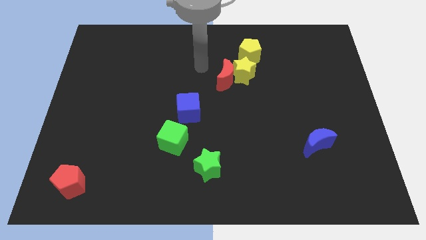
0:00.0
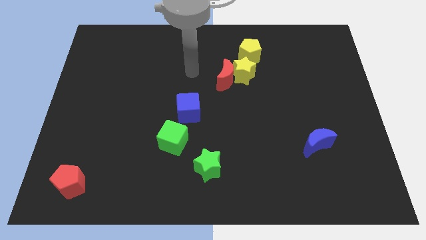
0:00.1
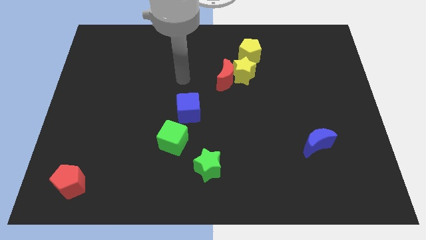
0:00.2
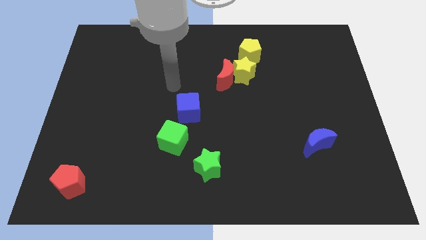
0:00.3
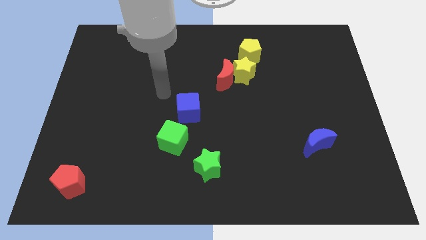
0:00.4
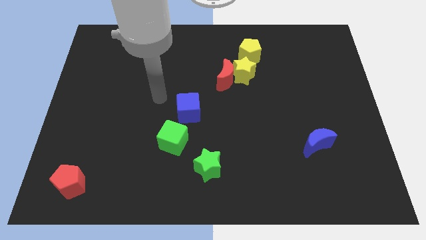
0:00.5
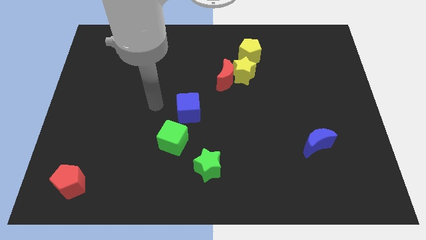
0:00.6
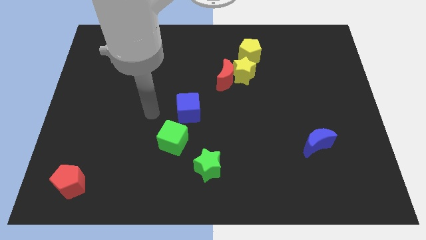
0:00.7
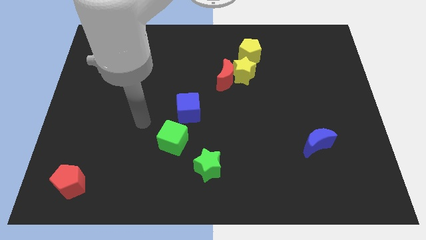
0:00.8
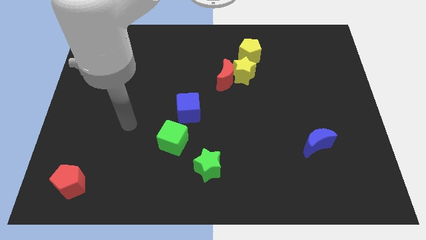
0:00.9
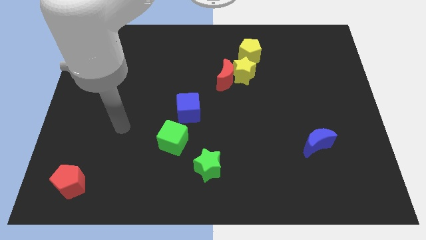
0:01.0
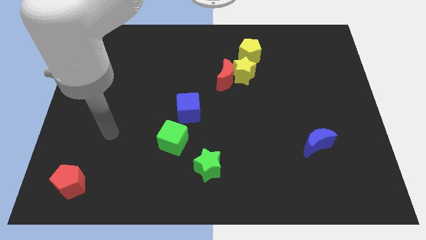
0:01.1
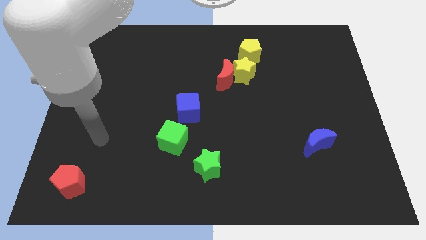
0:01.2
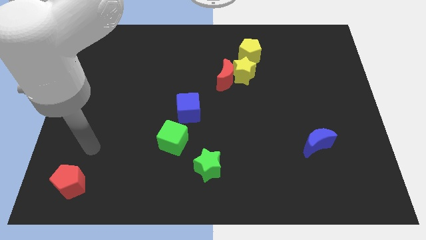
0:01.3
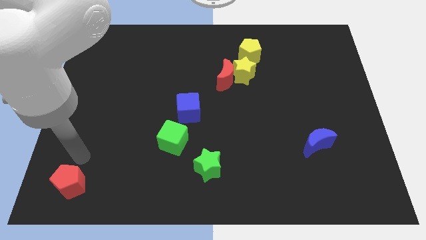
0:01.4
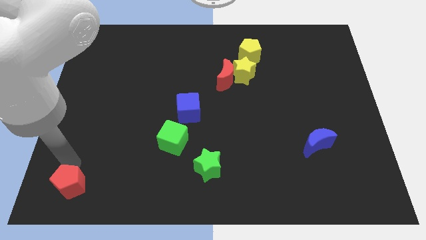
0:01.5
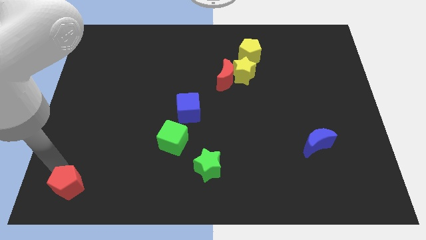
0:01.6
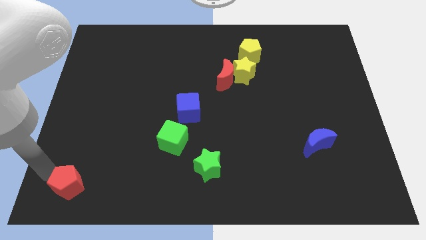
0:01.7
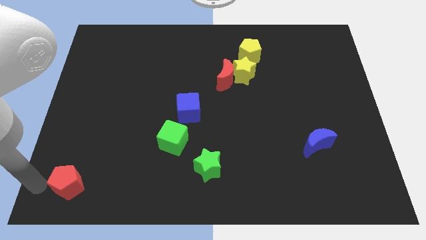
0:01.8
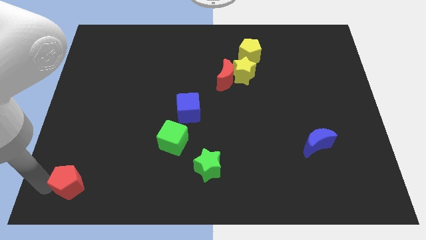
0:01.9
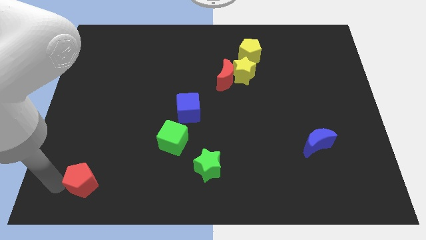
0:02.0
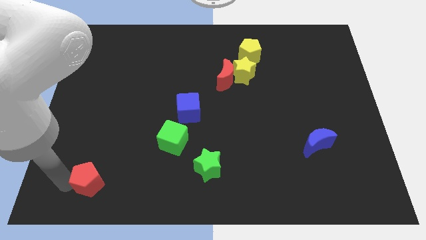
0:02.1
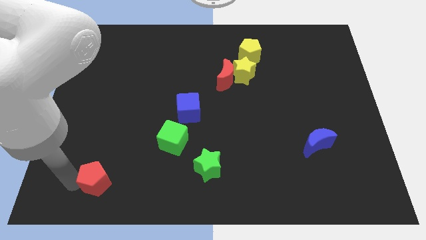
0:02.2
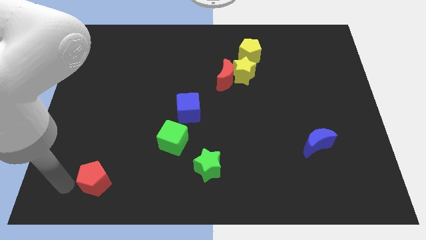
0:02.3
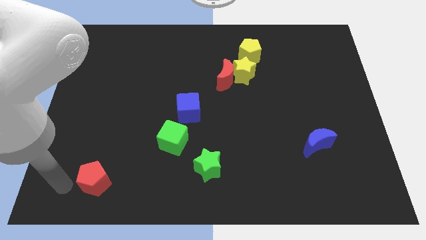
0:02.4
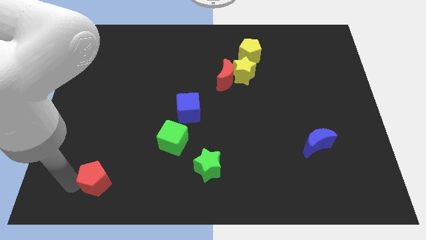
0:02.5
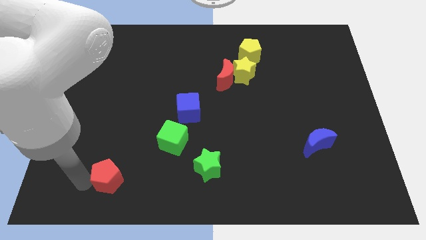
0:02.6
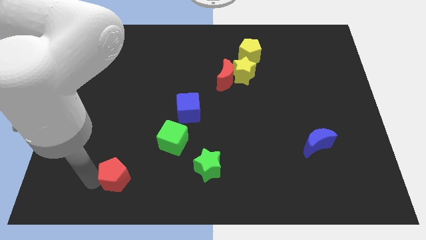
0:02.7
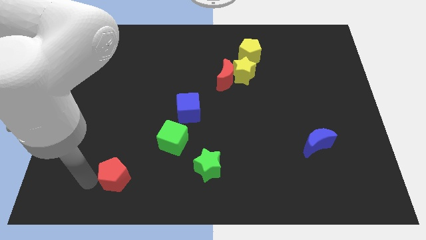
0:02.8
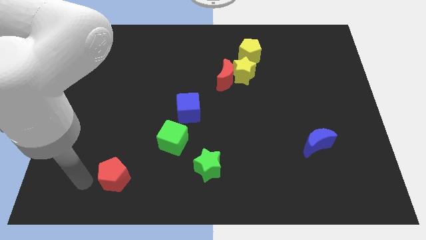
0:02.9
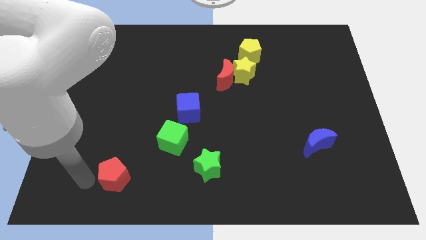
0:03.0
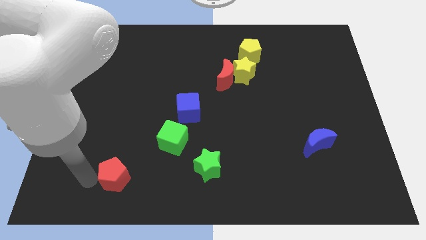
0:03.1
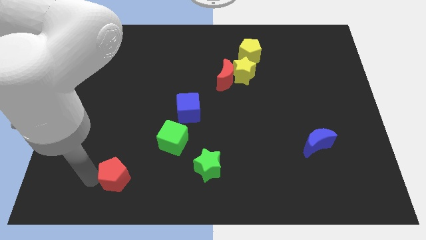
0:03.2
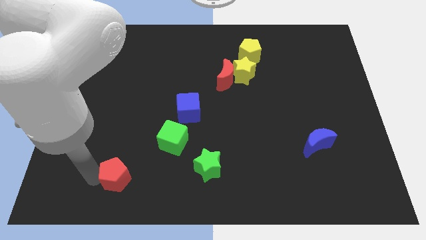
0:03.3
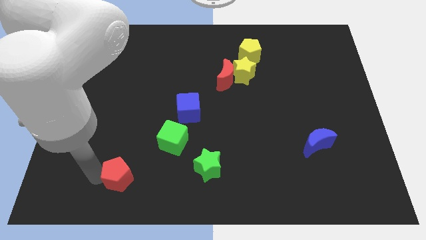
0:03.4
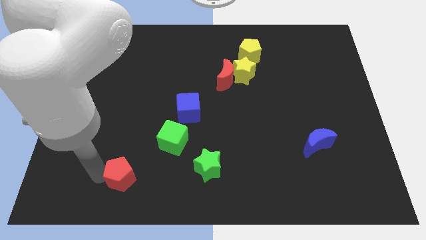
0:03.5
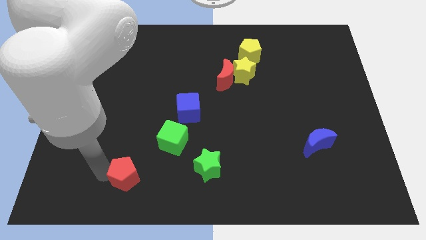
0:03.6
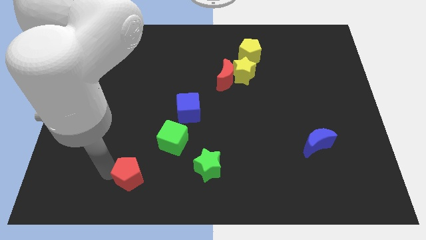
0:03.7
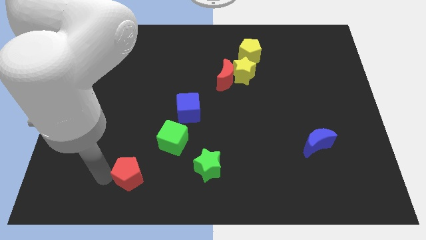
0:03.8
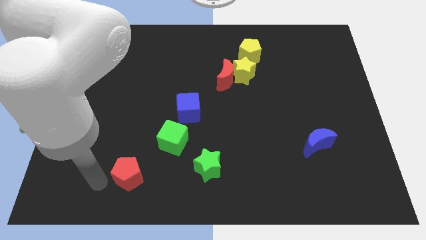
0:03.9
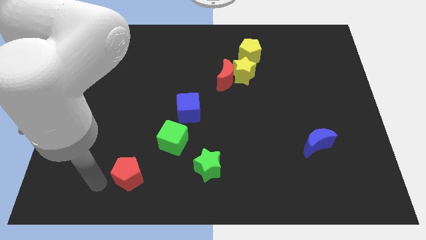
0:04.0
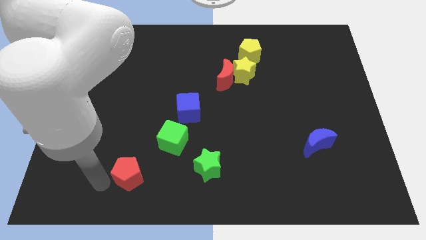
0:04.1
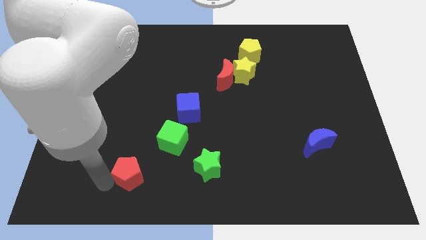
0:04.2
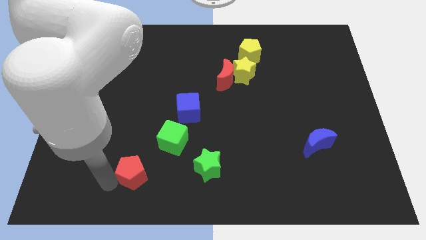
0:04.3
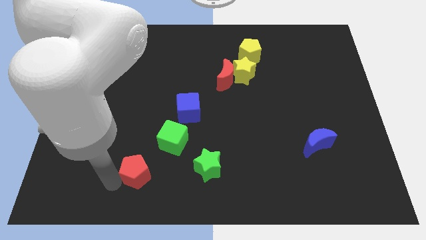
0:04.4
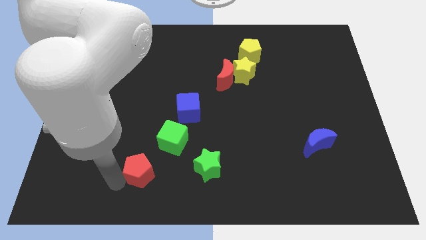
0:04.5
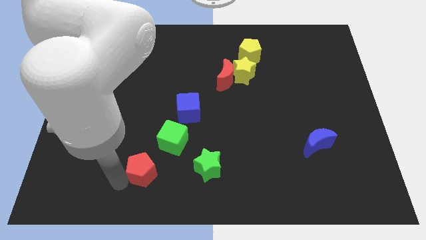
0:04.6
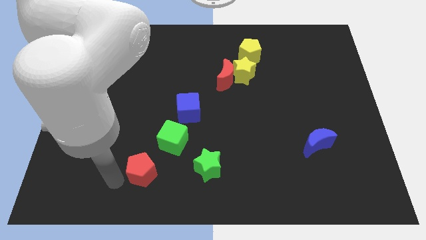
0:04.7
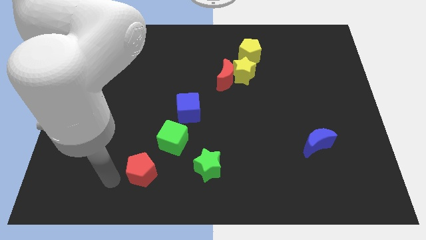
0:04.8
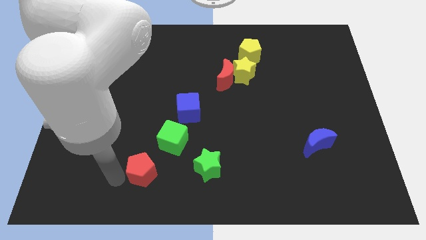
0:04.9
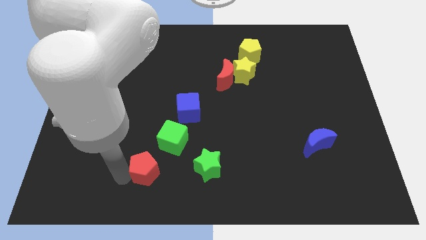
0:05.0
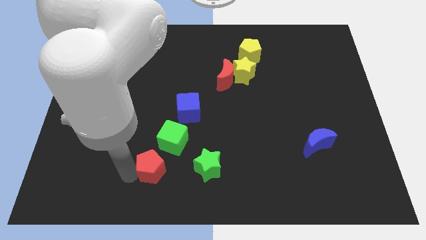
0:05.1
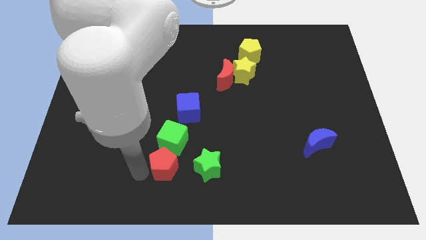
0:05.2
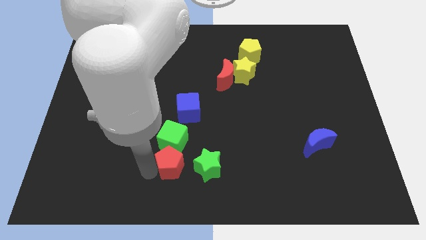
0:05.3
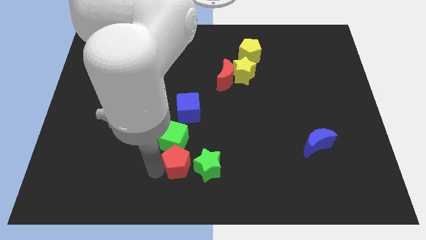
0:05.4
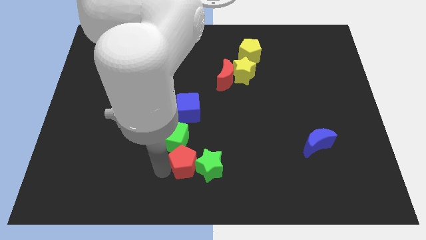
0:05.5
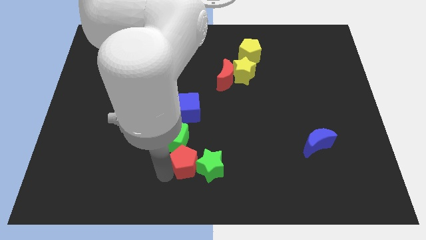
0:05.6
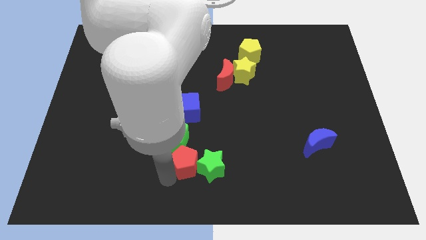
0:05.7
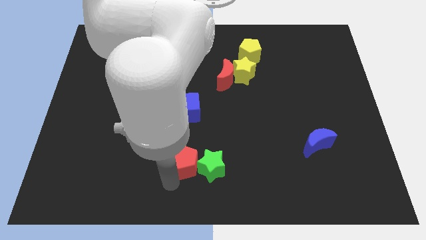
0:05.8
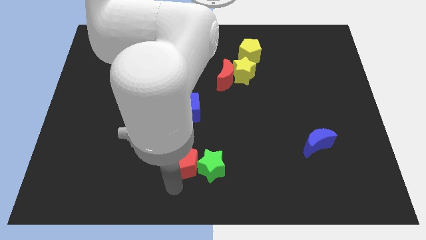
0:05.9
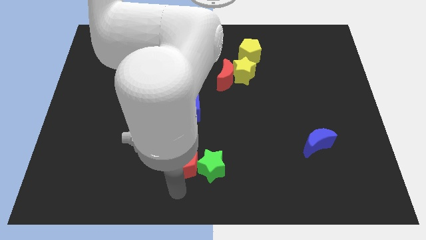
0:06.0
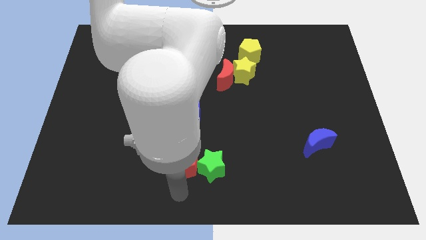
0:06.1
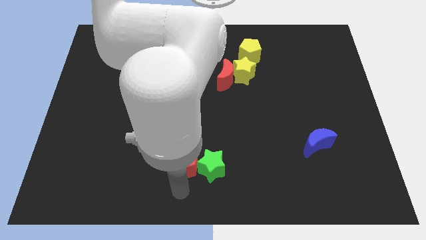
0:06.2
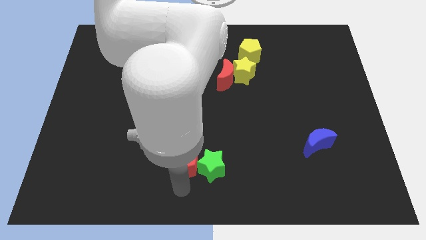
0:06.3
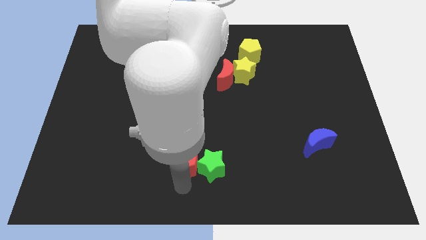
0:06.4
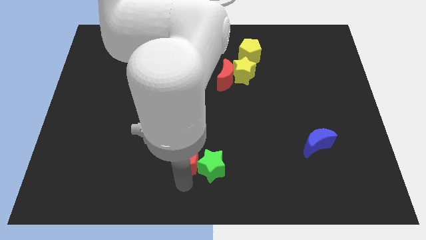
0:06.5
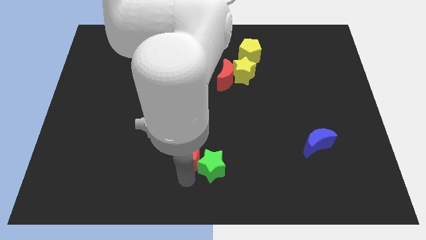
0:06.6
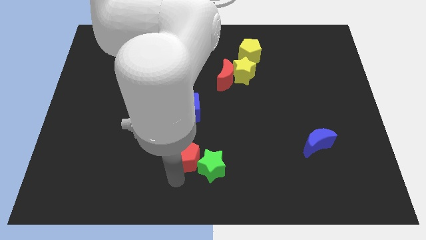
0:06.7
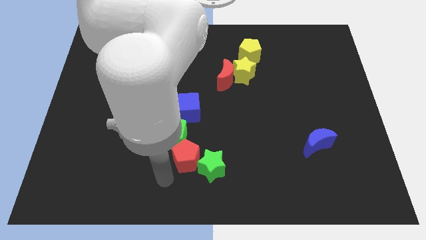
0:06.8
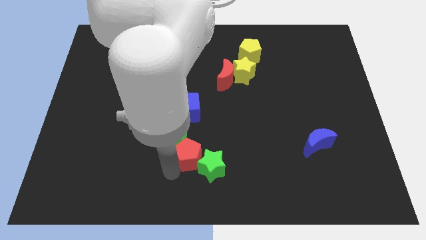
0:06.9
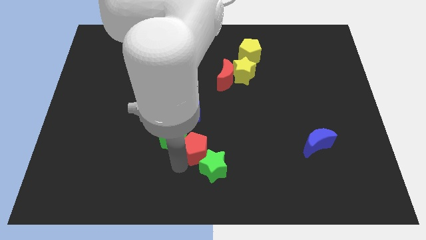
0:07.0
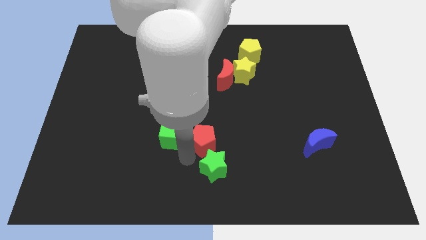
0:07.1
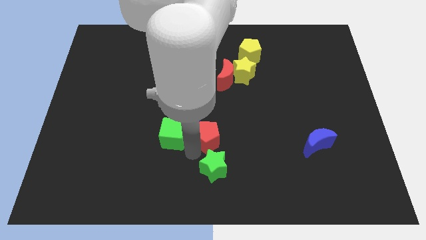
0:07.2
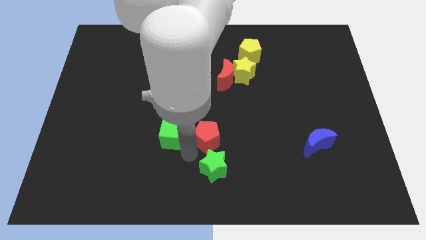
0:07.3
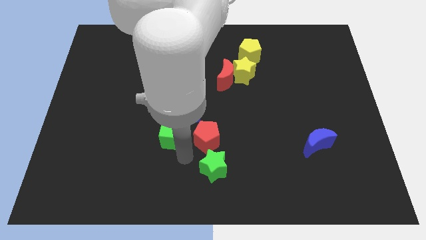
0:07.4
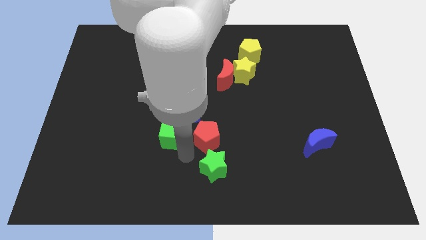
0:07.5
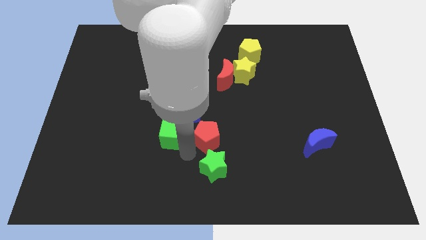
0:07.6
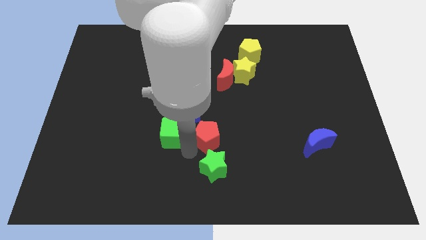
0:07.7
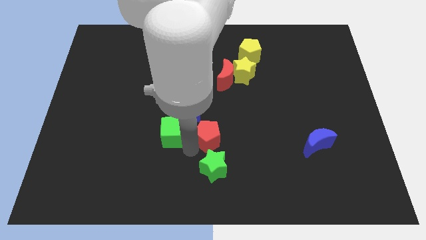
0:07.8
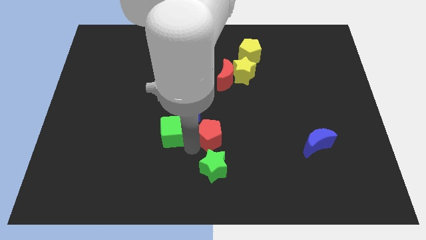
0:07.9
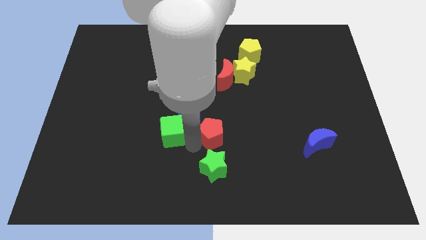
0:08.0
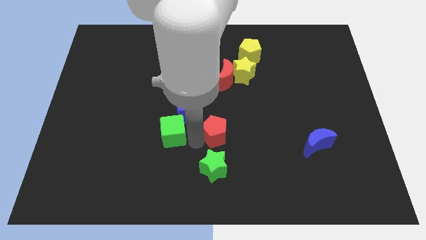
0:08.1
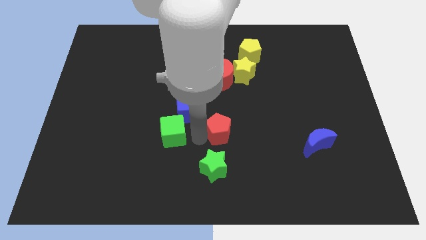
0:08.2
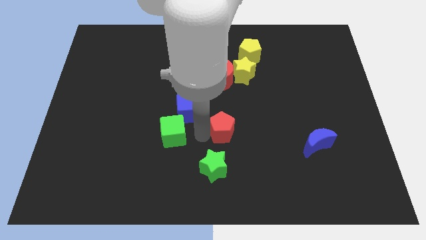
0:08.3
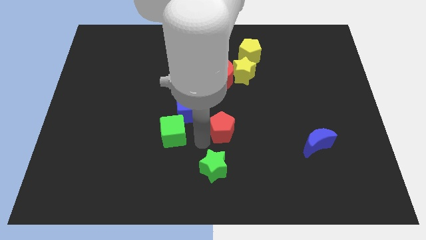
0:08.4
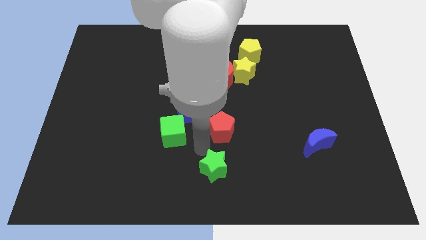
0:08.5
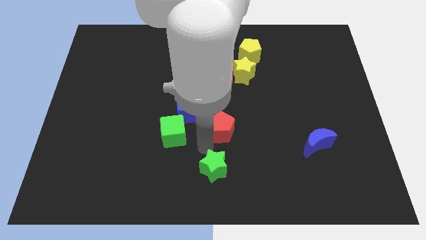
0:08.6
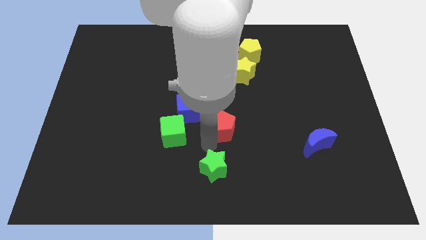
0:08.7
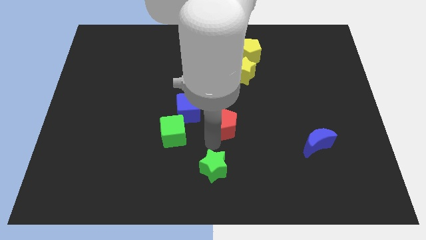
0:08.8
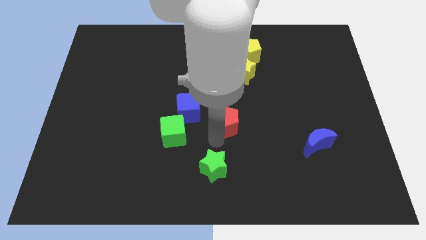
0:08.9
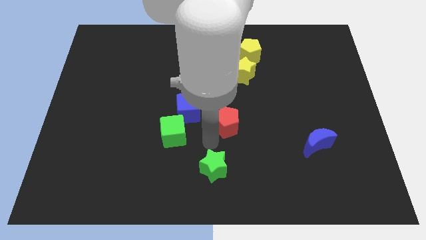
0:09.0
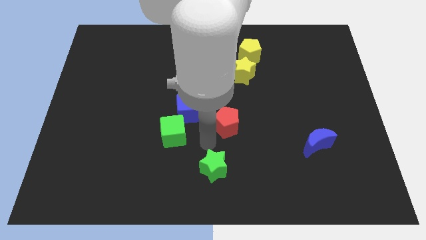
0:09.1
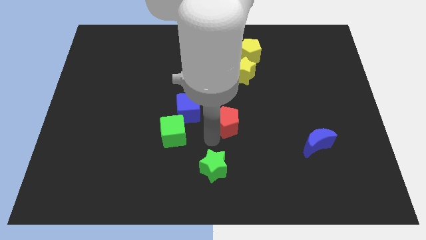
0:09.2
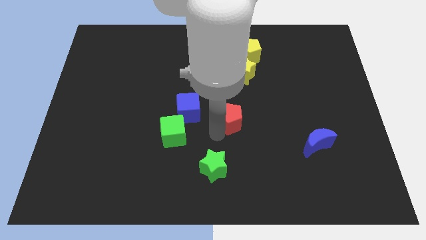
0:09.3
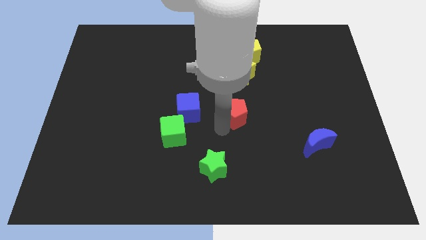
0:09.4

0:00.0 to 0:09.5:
slide the red pentagon to the bottom side of the yellow star
